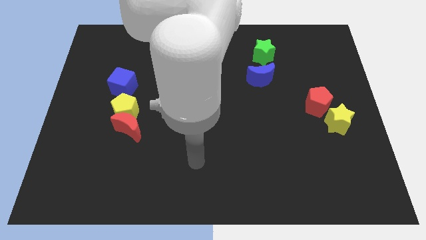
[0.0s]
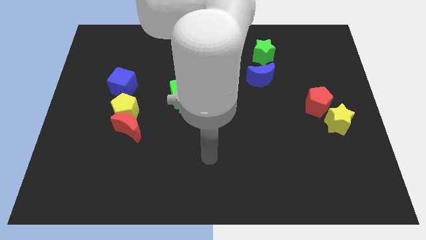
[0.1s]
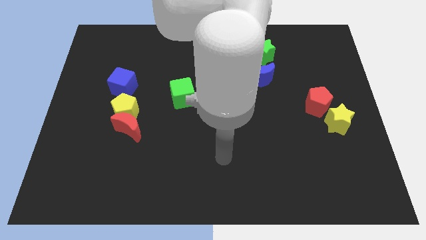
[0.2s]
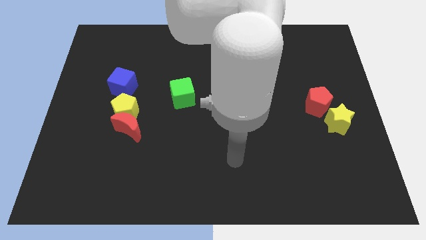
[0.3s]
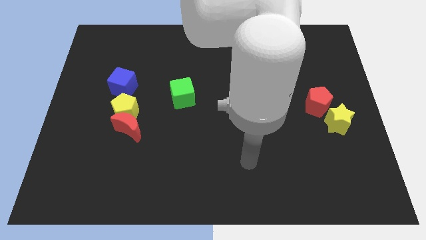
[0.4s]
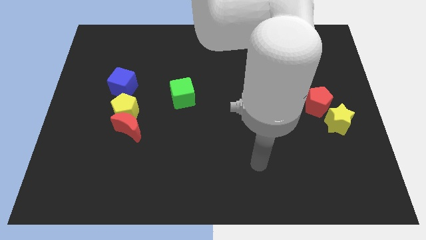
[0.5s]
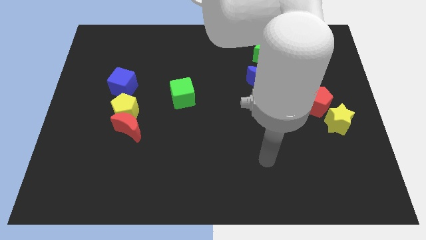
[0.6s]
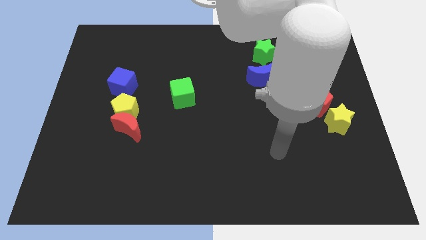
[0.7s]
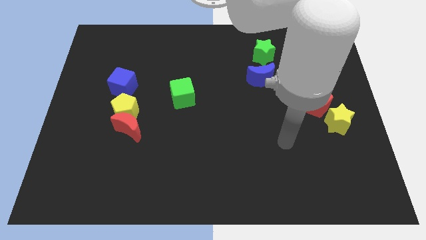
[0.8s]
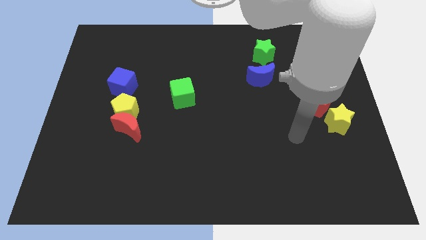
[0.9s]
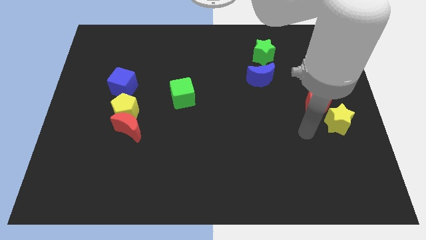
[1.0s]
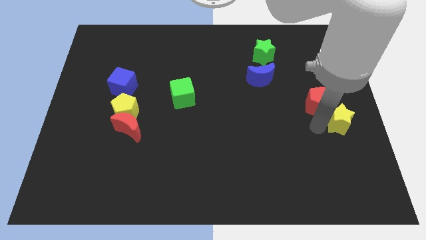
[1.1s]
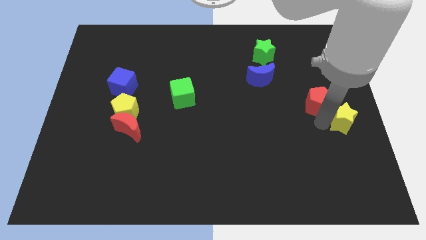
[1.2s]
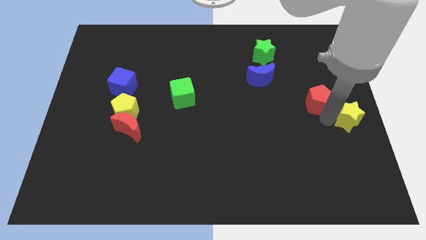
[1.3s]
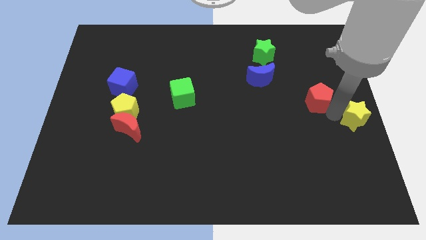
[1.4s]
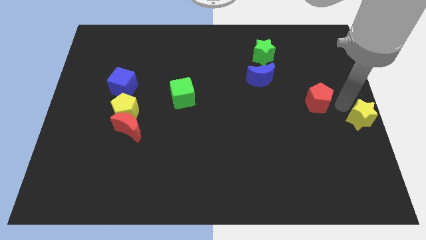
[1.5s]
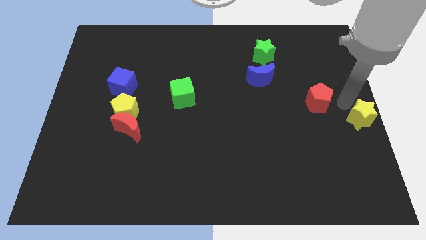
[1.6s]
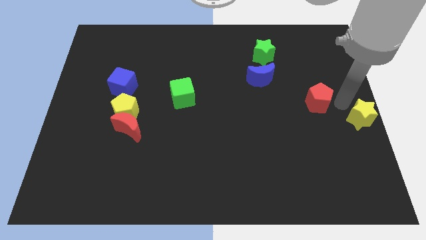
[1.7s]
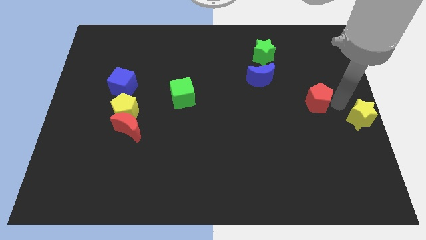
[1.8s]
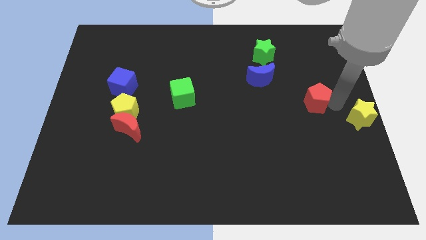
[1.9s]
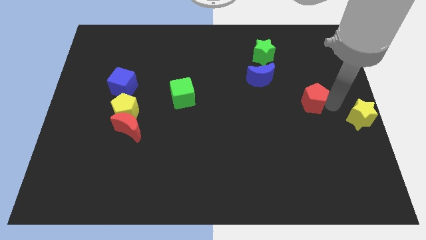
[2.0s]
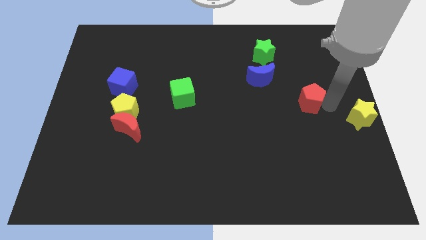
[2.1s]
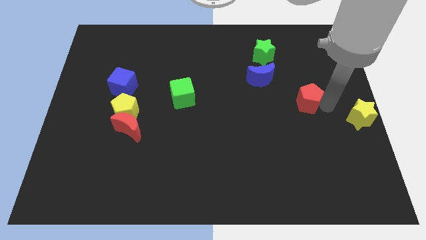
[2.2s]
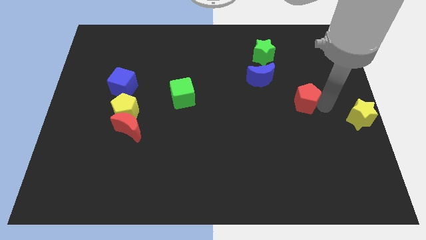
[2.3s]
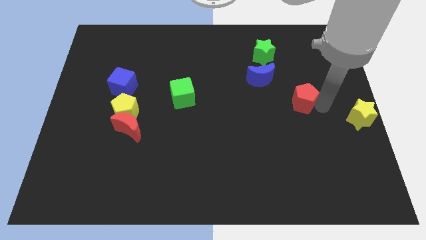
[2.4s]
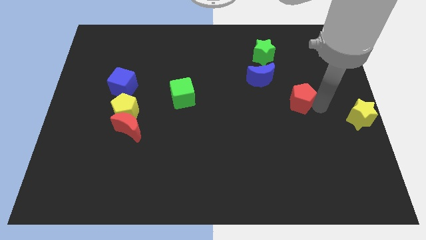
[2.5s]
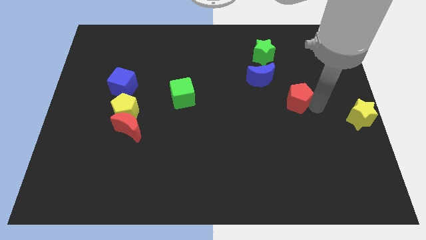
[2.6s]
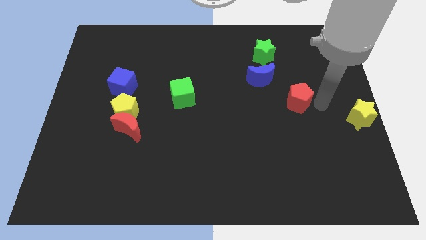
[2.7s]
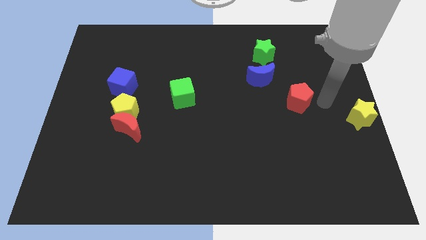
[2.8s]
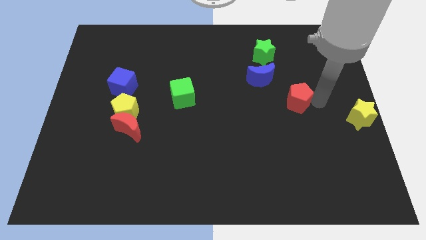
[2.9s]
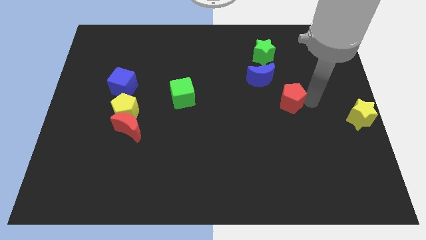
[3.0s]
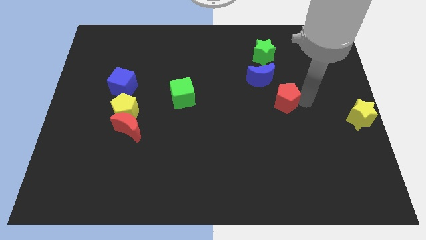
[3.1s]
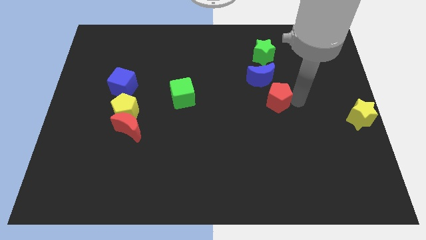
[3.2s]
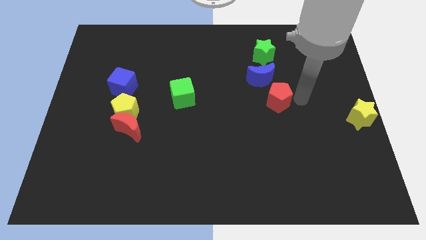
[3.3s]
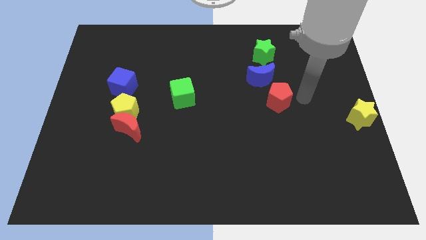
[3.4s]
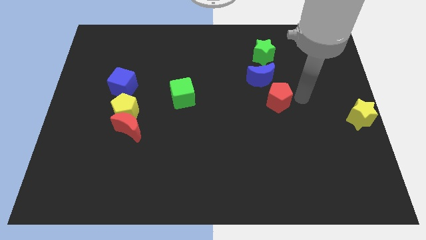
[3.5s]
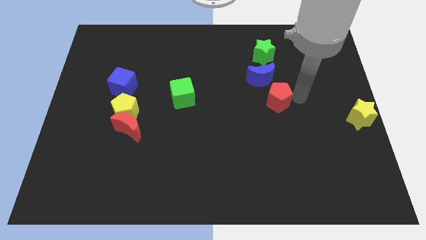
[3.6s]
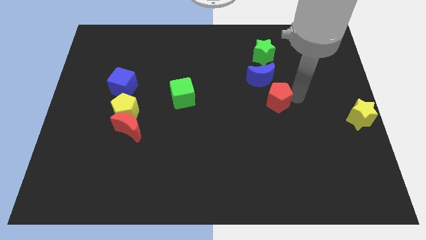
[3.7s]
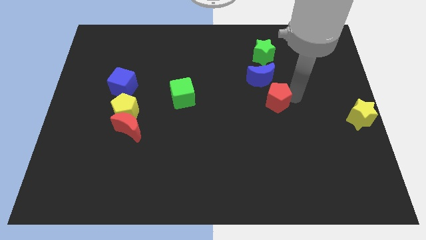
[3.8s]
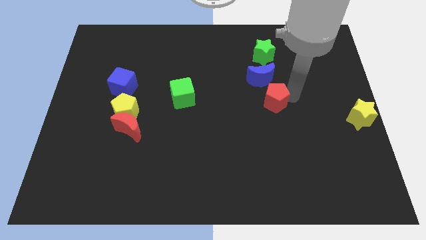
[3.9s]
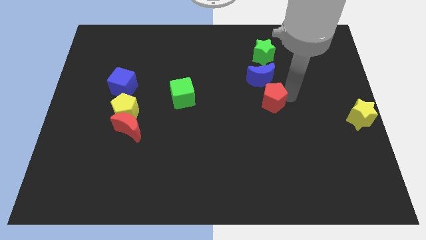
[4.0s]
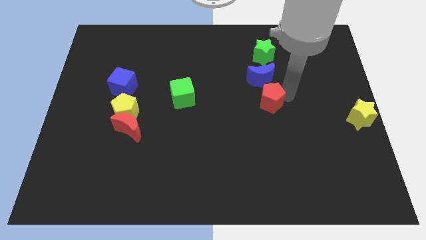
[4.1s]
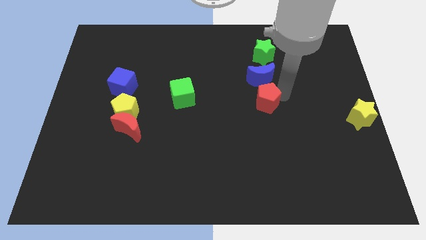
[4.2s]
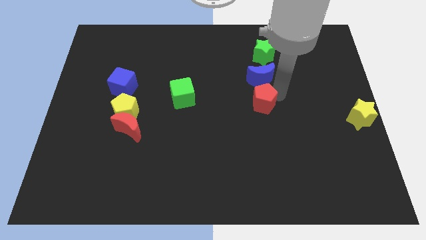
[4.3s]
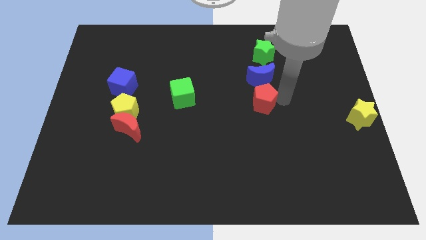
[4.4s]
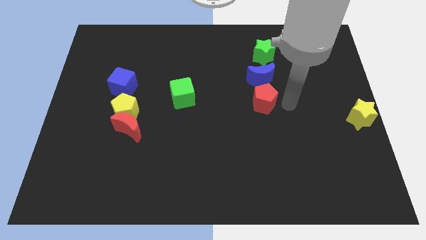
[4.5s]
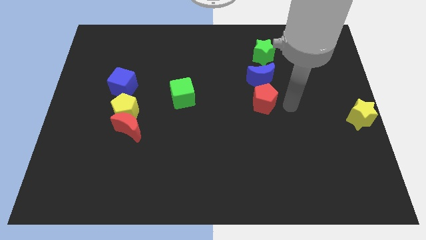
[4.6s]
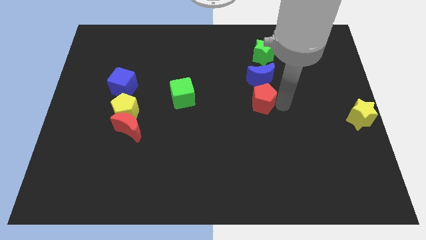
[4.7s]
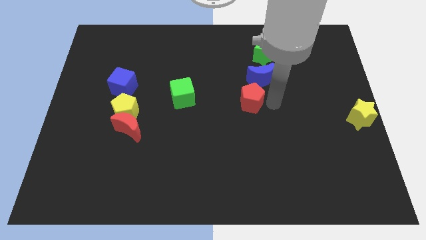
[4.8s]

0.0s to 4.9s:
move the red pentagon right of the green cube

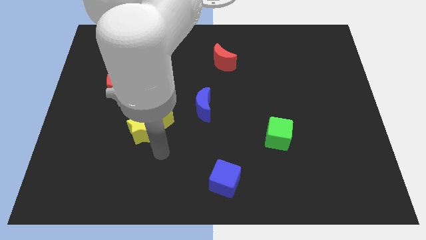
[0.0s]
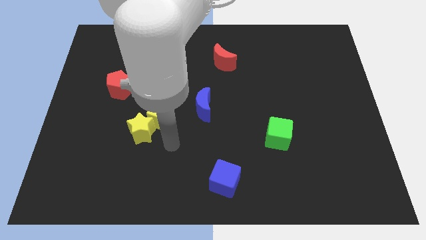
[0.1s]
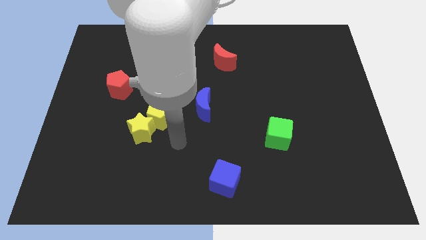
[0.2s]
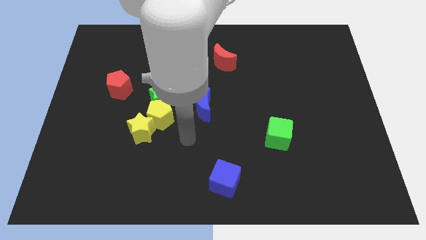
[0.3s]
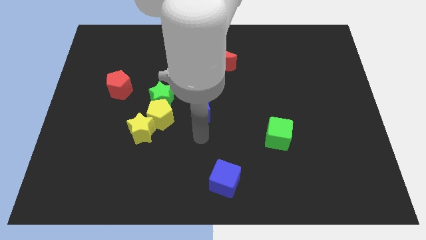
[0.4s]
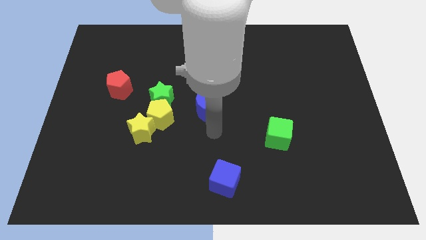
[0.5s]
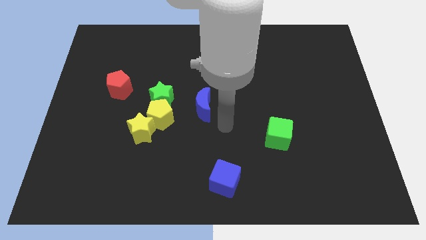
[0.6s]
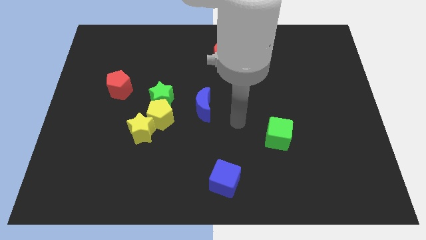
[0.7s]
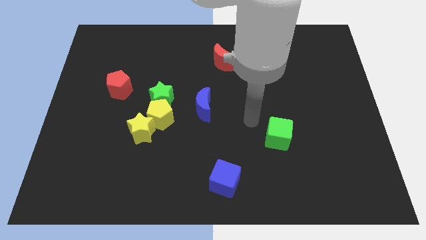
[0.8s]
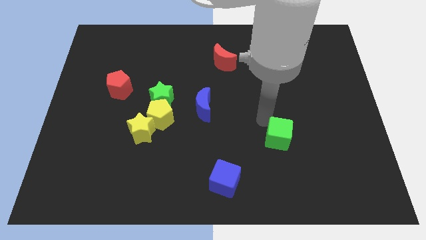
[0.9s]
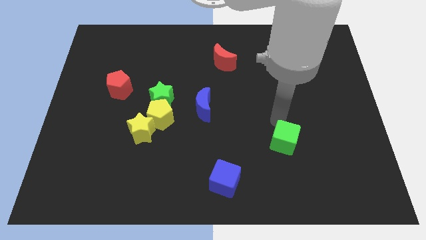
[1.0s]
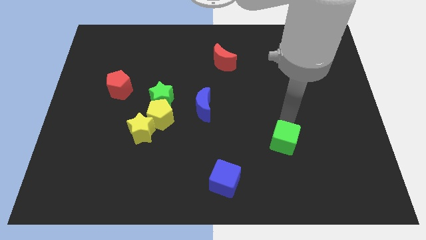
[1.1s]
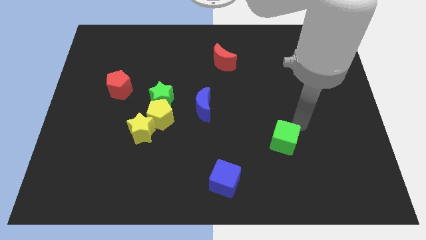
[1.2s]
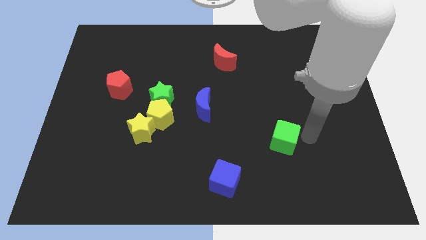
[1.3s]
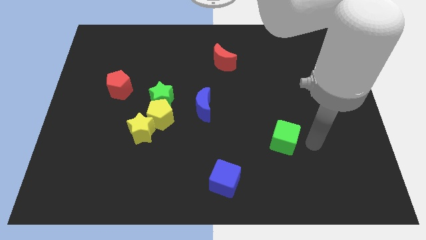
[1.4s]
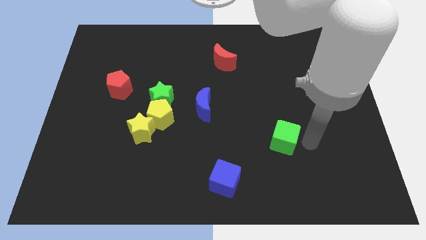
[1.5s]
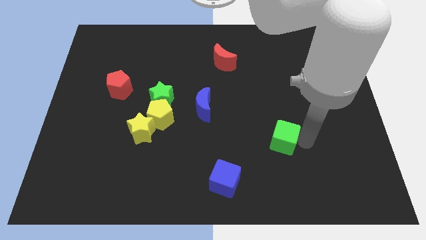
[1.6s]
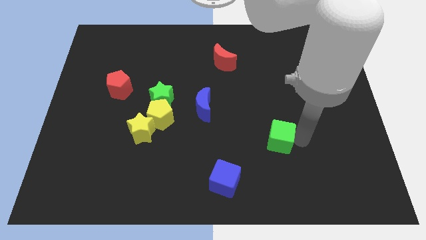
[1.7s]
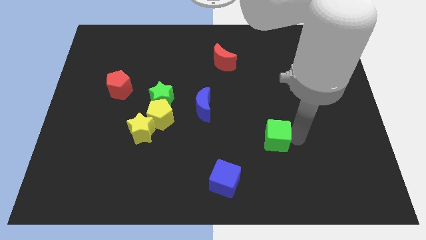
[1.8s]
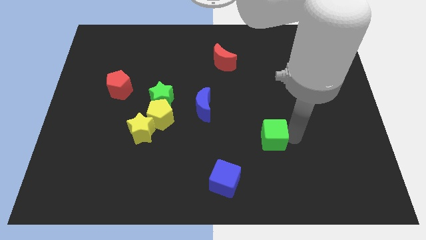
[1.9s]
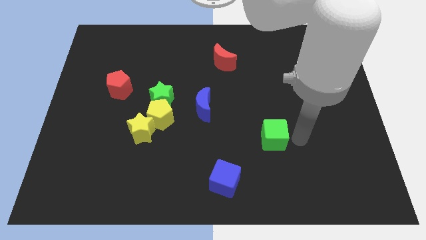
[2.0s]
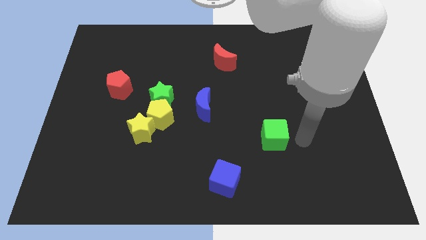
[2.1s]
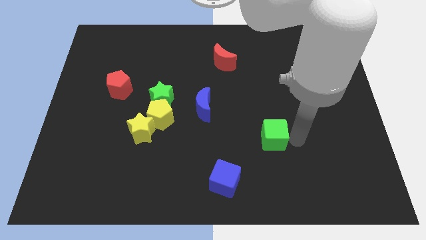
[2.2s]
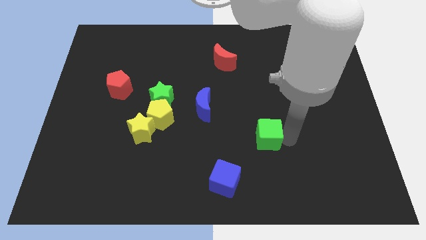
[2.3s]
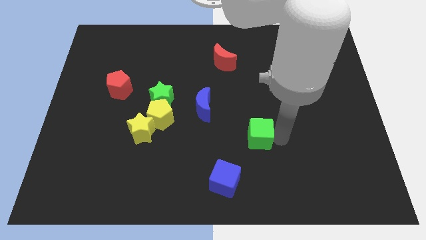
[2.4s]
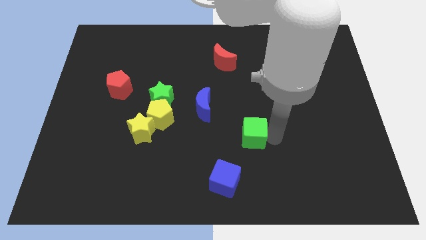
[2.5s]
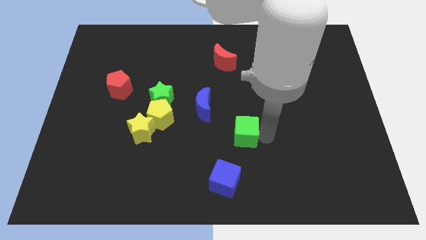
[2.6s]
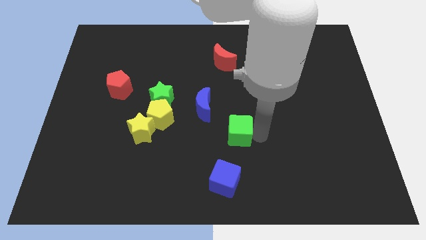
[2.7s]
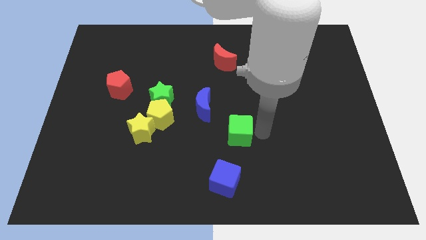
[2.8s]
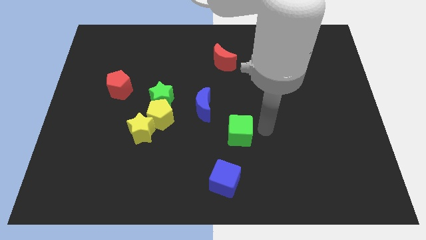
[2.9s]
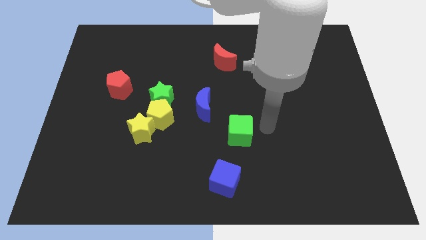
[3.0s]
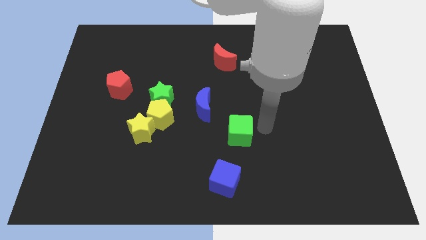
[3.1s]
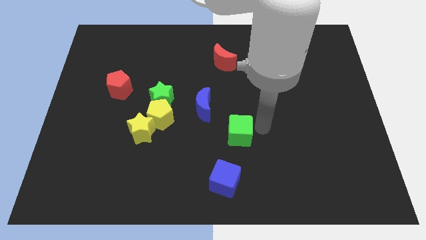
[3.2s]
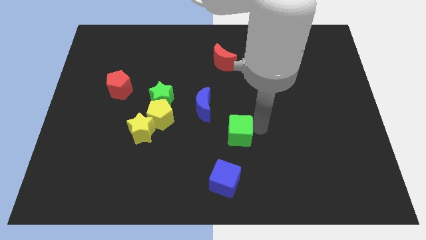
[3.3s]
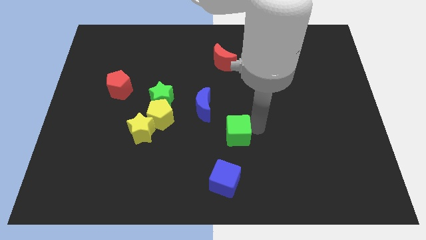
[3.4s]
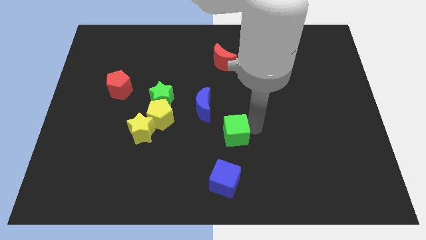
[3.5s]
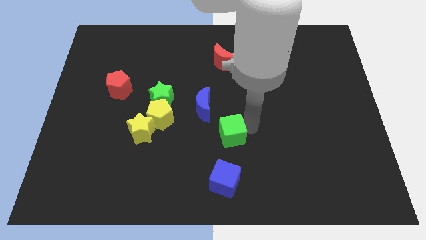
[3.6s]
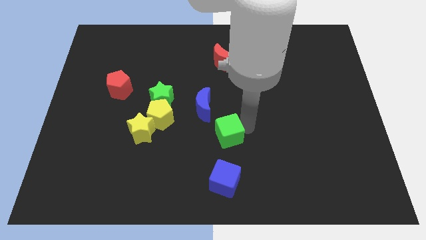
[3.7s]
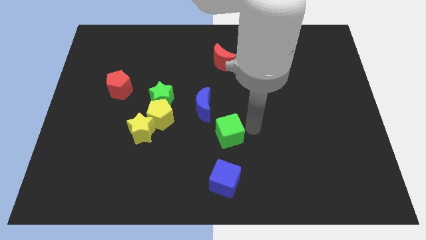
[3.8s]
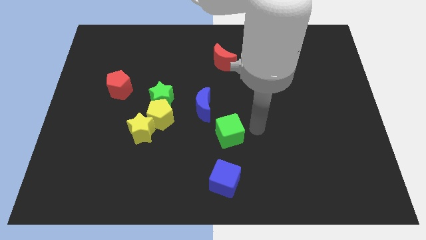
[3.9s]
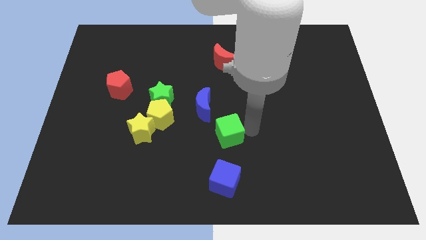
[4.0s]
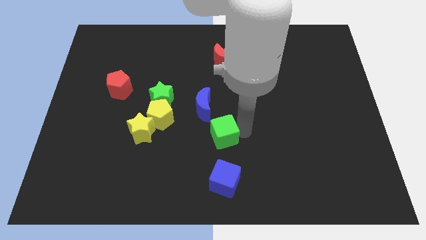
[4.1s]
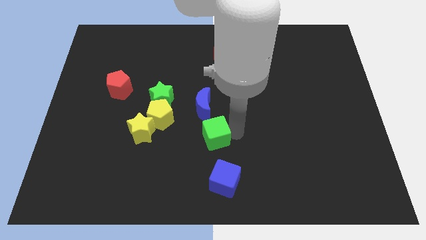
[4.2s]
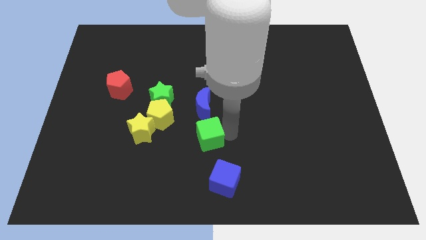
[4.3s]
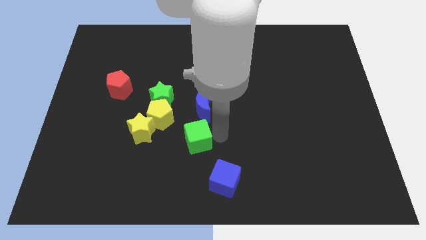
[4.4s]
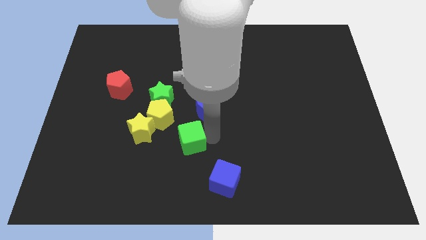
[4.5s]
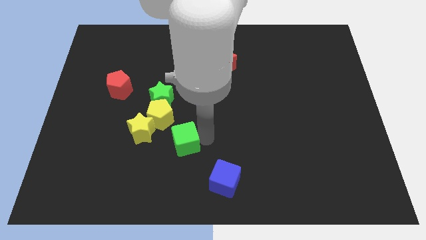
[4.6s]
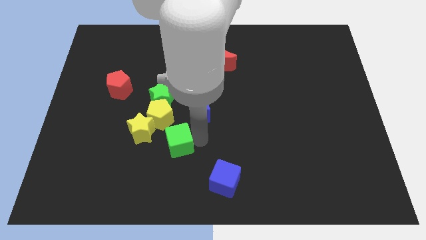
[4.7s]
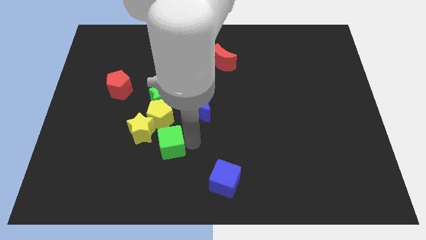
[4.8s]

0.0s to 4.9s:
move the green cube to the bottom side of the green star
